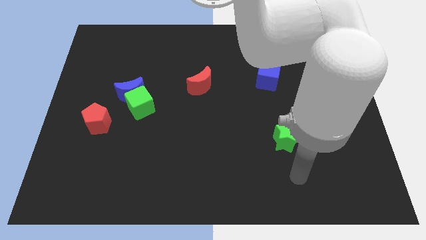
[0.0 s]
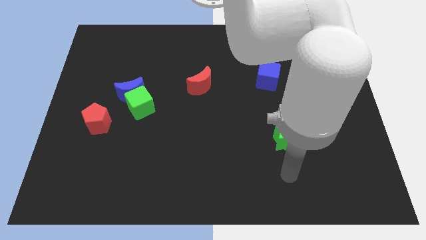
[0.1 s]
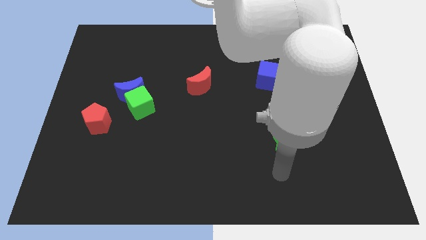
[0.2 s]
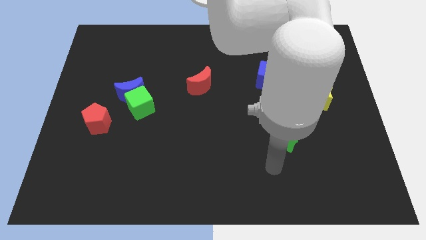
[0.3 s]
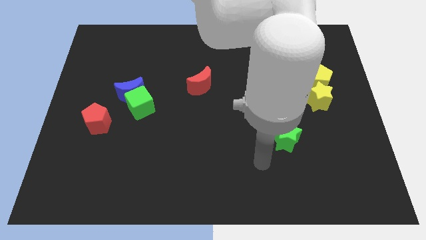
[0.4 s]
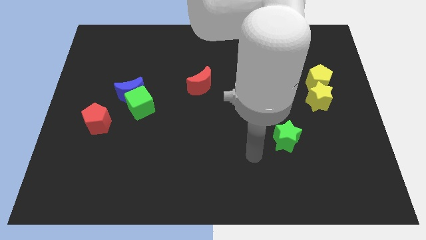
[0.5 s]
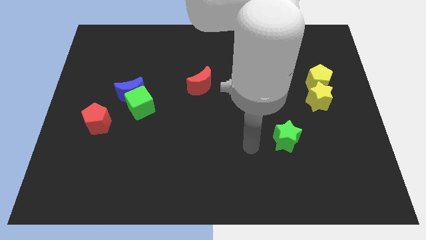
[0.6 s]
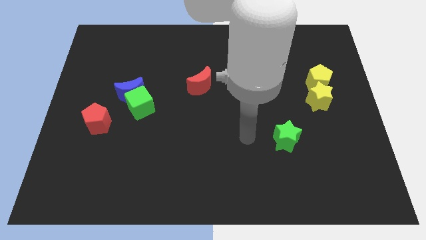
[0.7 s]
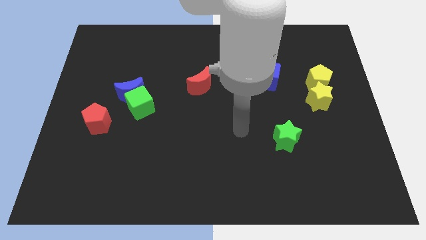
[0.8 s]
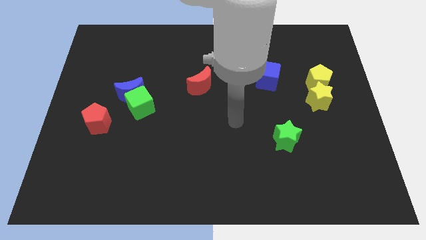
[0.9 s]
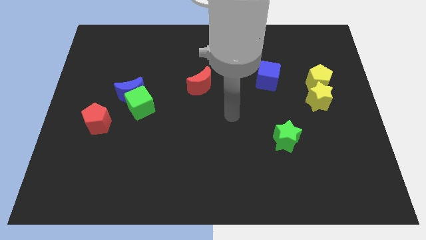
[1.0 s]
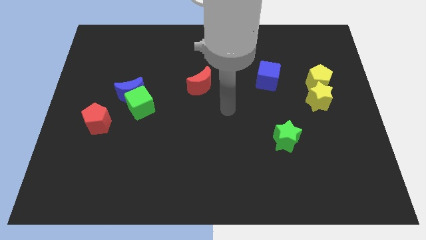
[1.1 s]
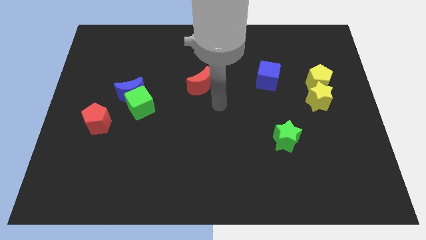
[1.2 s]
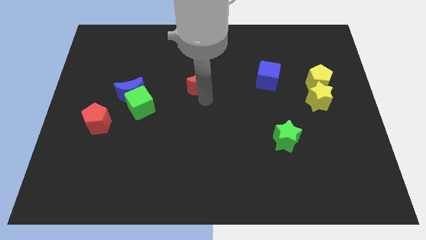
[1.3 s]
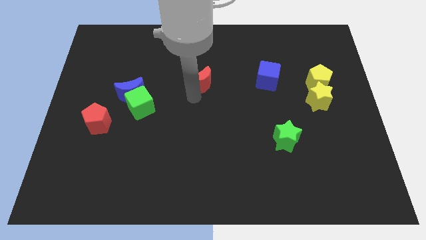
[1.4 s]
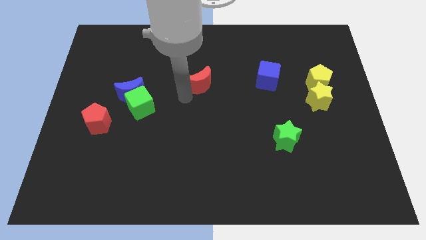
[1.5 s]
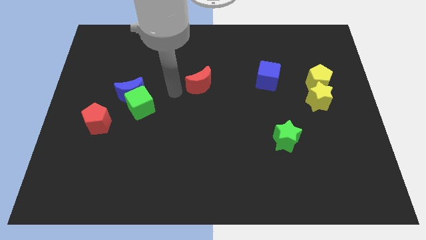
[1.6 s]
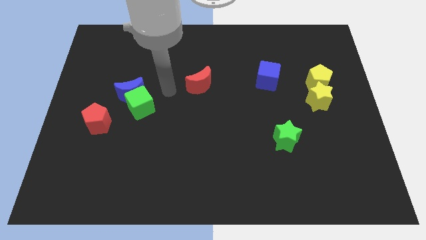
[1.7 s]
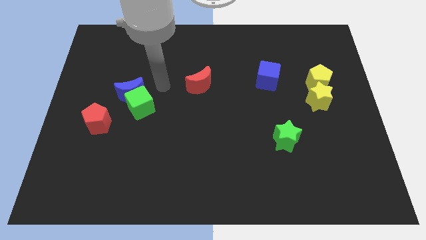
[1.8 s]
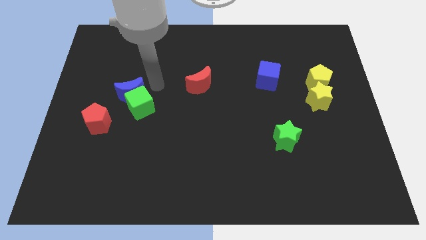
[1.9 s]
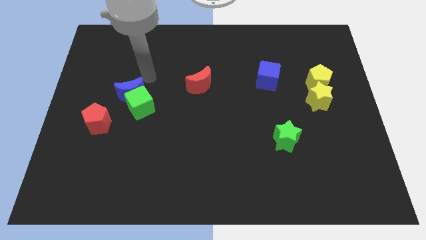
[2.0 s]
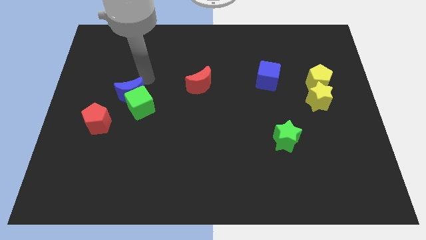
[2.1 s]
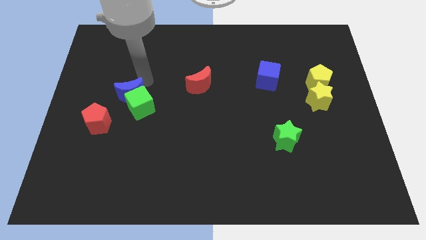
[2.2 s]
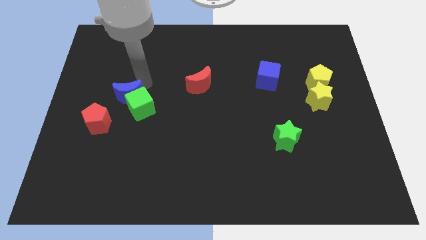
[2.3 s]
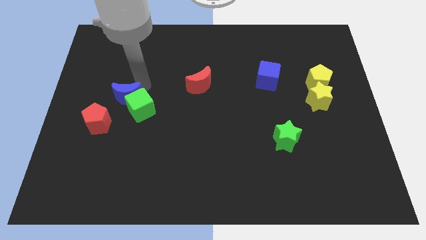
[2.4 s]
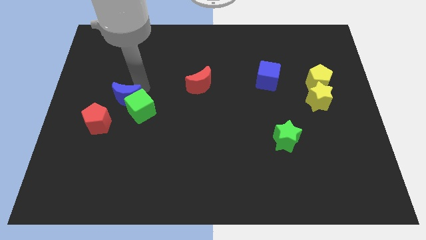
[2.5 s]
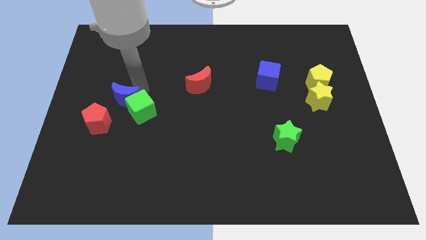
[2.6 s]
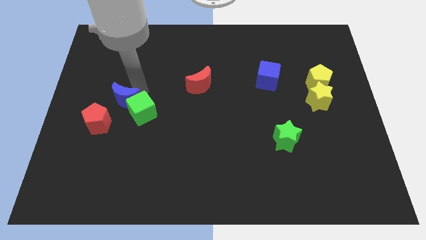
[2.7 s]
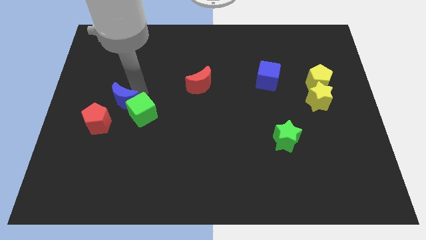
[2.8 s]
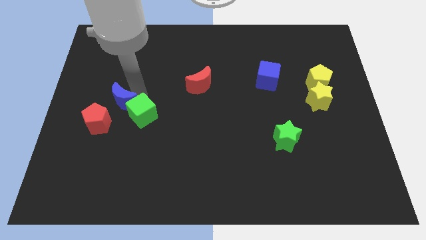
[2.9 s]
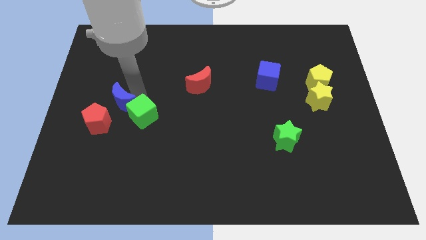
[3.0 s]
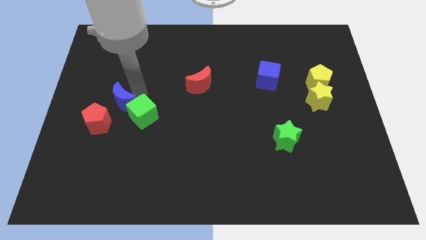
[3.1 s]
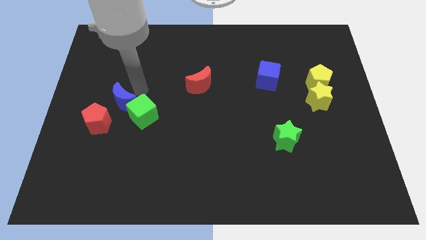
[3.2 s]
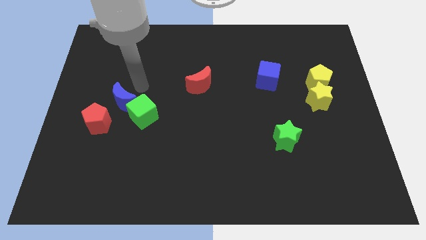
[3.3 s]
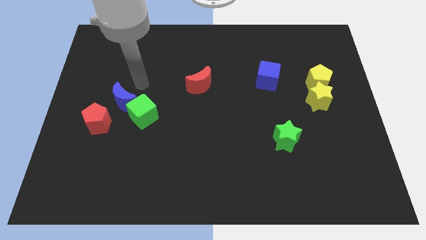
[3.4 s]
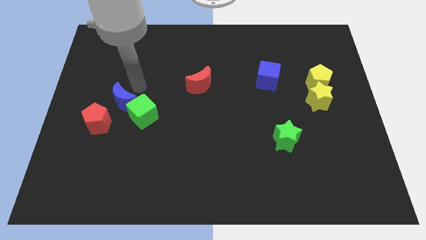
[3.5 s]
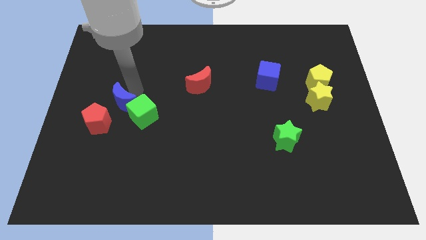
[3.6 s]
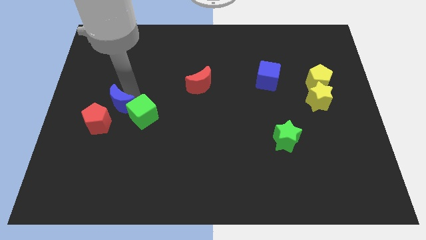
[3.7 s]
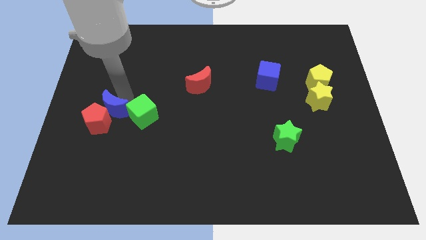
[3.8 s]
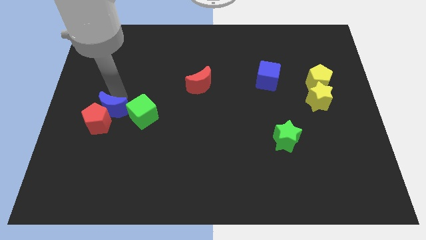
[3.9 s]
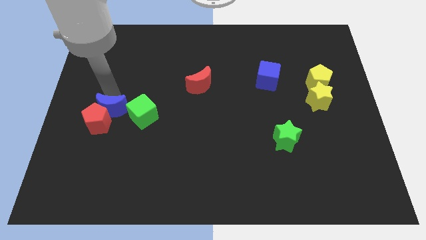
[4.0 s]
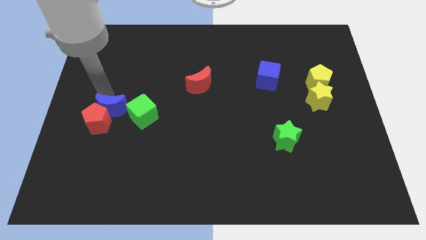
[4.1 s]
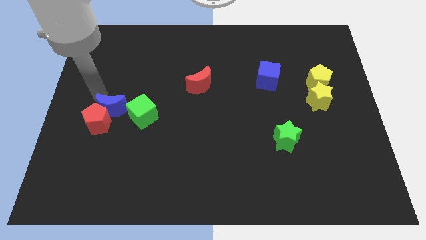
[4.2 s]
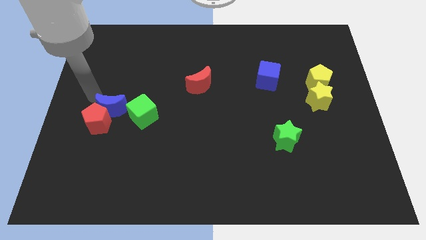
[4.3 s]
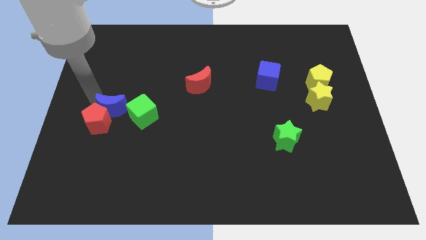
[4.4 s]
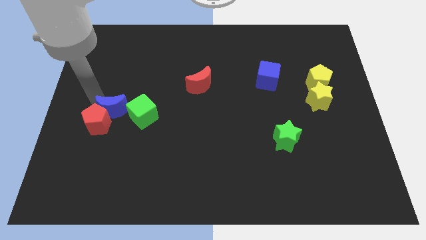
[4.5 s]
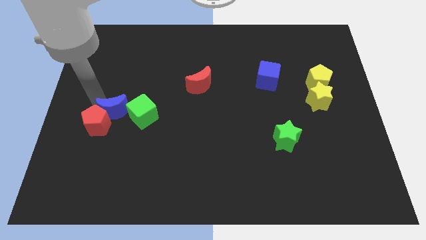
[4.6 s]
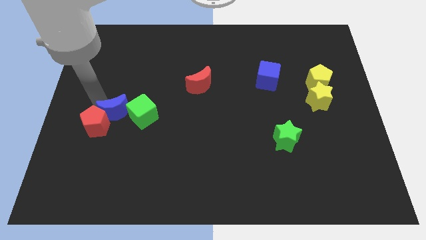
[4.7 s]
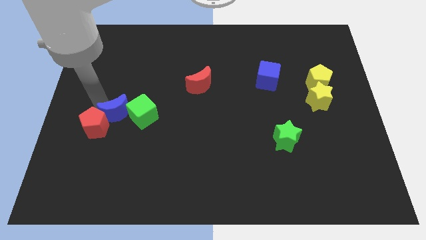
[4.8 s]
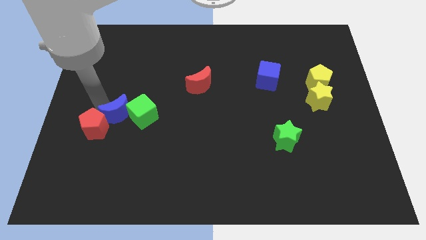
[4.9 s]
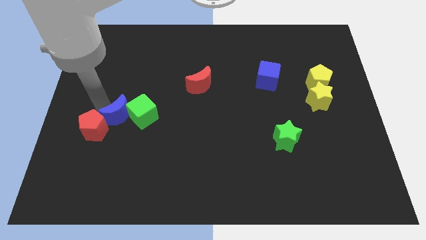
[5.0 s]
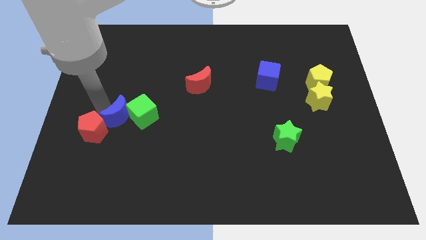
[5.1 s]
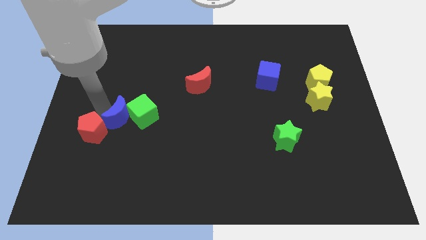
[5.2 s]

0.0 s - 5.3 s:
push the blue moon downwards slightly

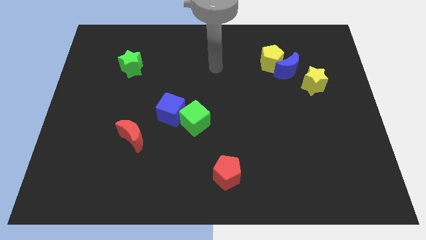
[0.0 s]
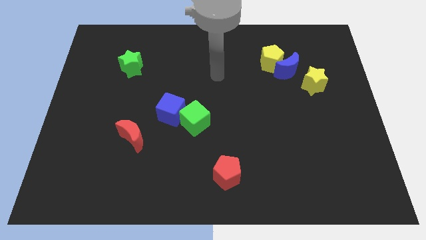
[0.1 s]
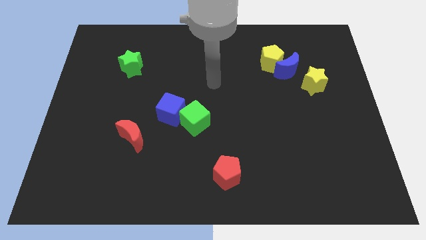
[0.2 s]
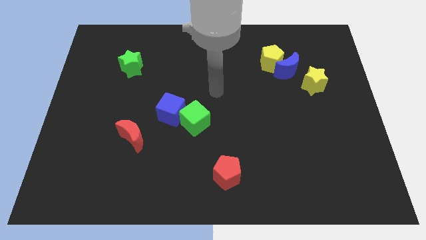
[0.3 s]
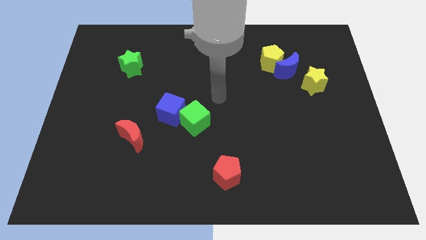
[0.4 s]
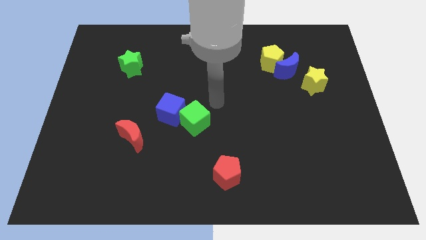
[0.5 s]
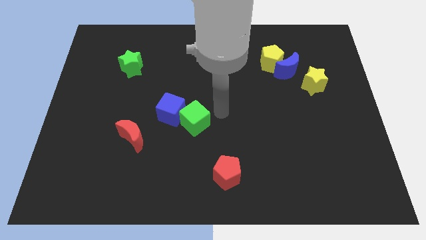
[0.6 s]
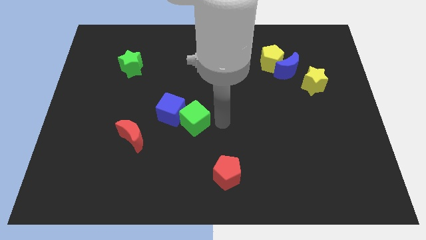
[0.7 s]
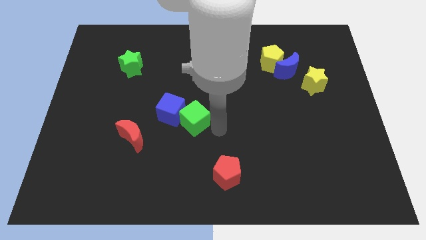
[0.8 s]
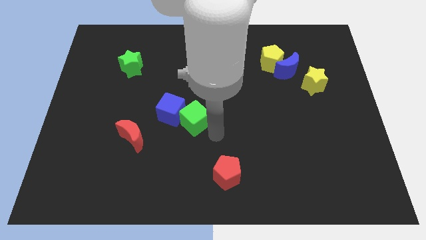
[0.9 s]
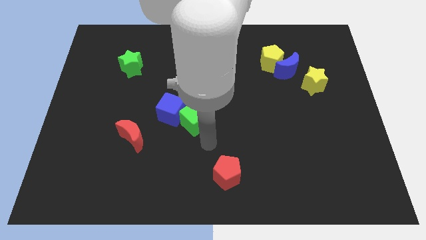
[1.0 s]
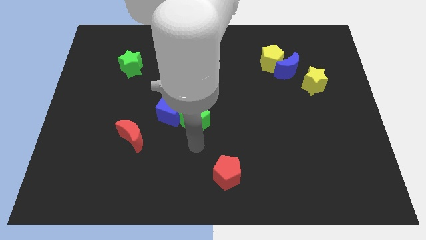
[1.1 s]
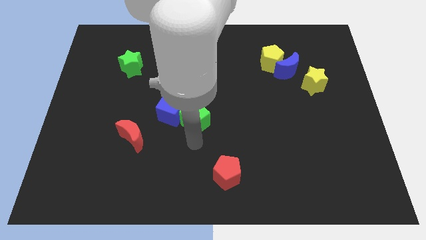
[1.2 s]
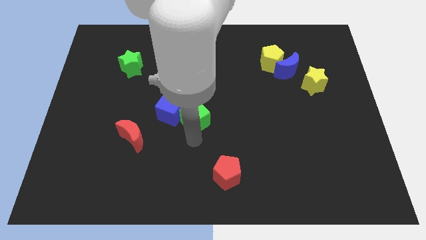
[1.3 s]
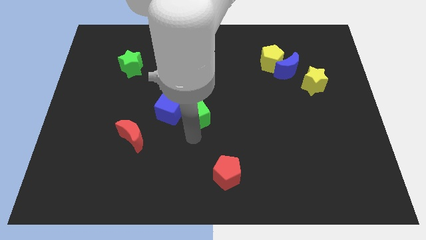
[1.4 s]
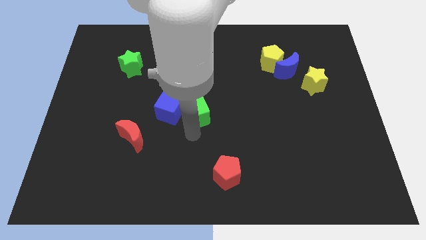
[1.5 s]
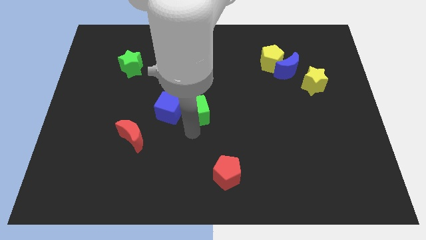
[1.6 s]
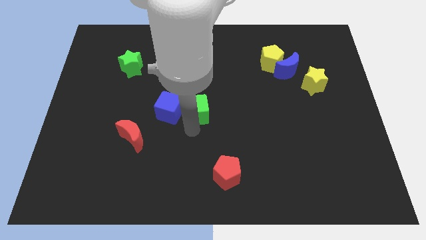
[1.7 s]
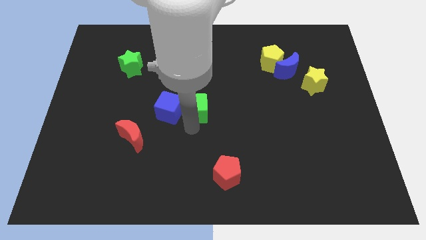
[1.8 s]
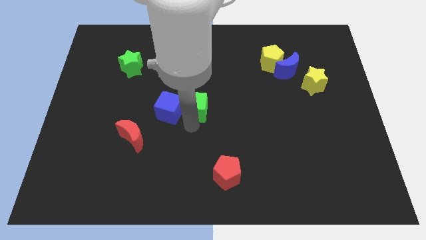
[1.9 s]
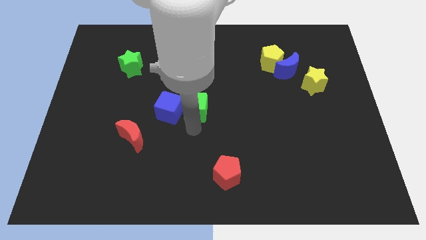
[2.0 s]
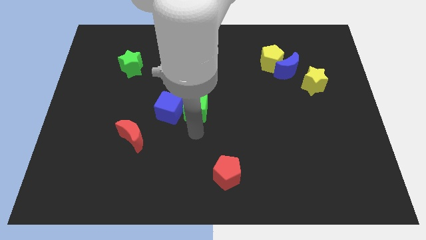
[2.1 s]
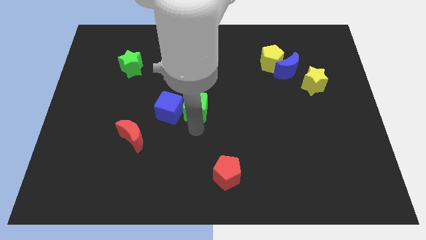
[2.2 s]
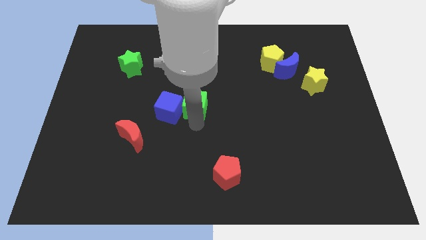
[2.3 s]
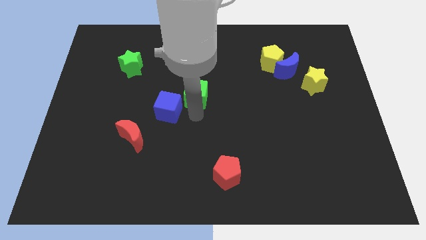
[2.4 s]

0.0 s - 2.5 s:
slide the green cube a little bit up

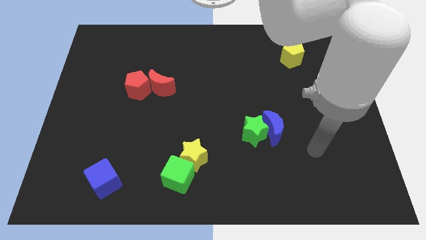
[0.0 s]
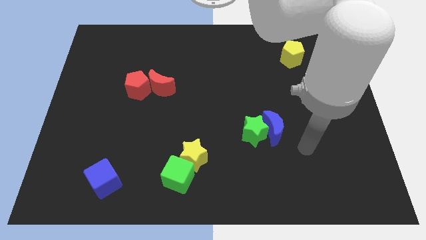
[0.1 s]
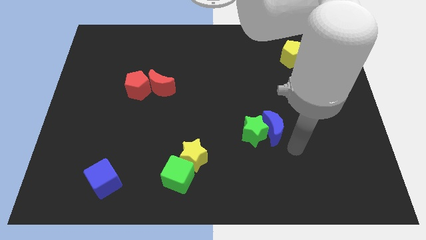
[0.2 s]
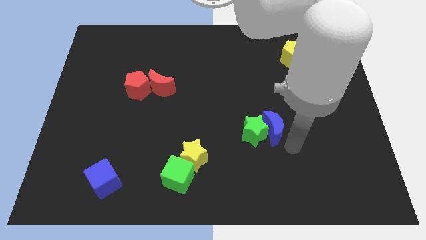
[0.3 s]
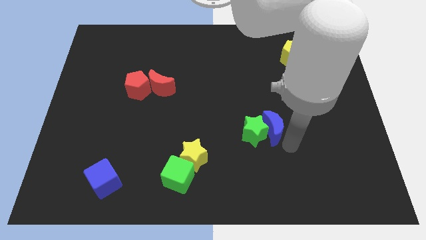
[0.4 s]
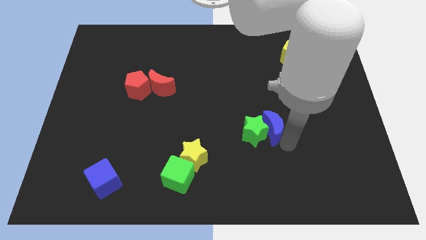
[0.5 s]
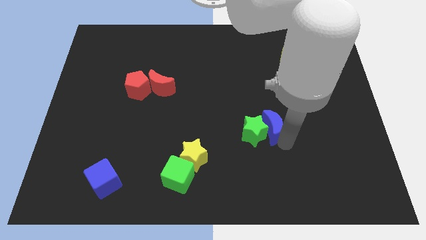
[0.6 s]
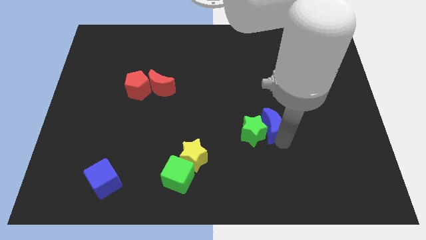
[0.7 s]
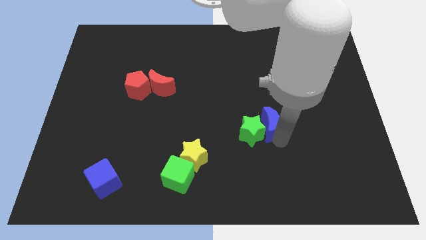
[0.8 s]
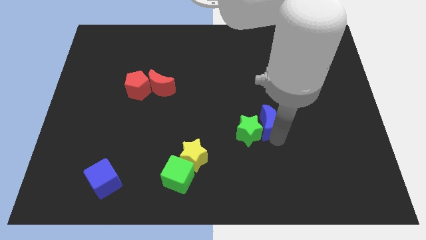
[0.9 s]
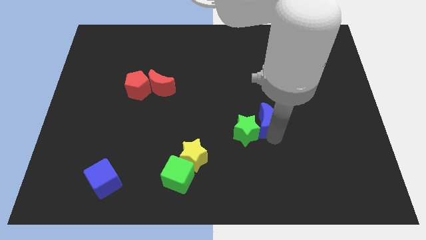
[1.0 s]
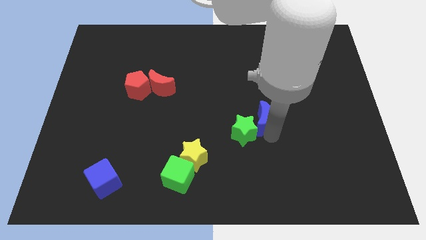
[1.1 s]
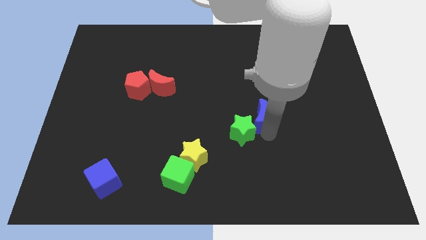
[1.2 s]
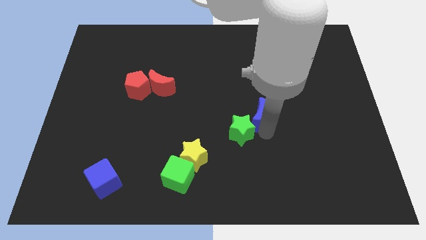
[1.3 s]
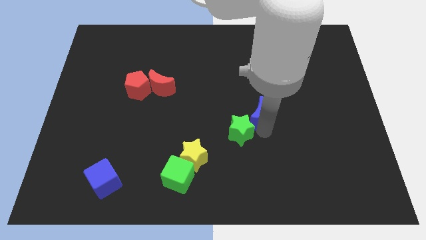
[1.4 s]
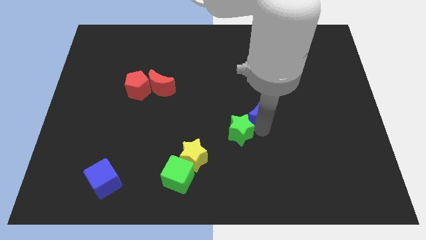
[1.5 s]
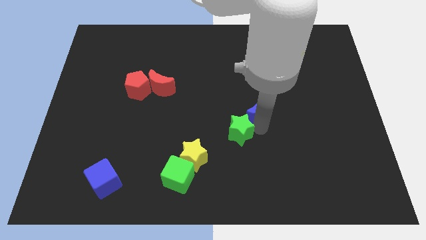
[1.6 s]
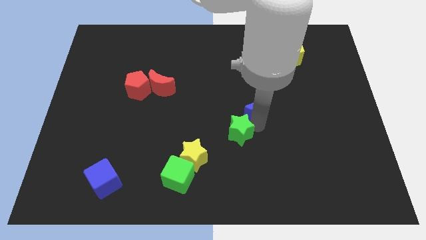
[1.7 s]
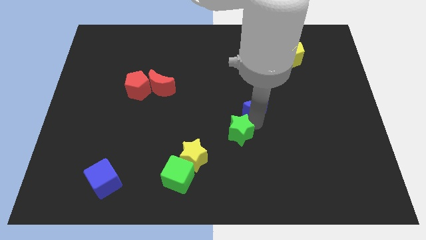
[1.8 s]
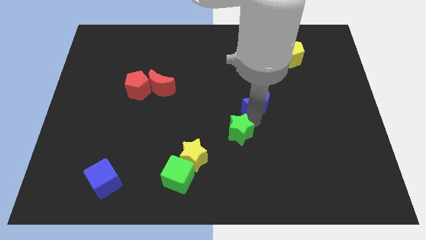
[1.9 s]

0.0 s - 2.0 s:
push the blue moon diagonally upwards and left slightly
